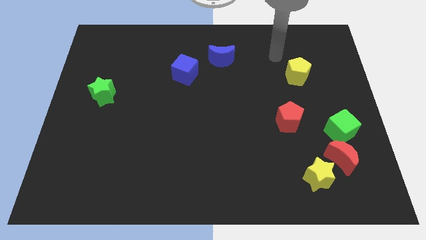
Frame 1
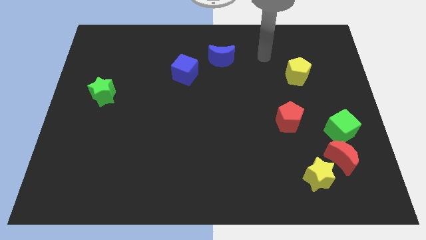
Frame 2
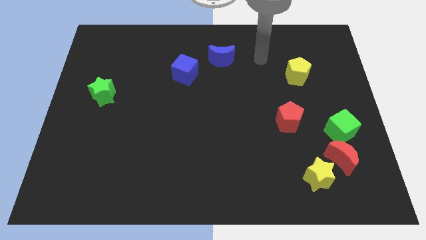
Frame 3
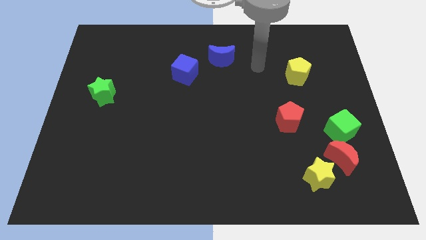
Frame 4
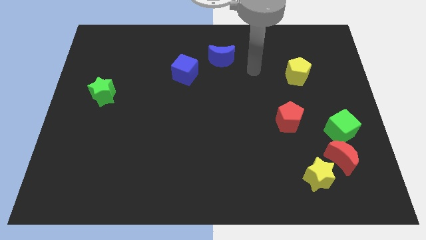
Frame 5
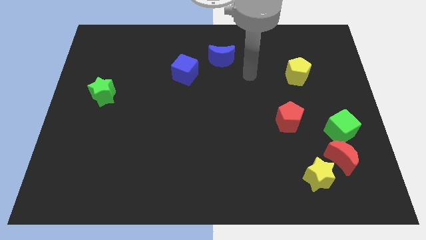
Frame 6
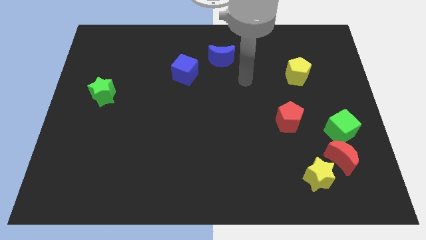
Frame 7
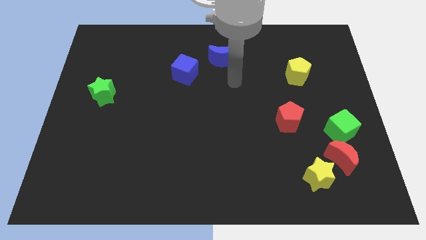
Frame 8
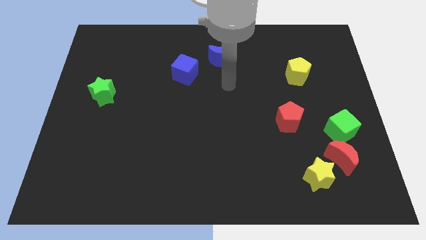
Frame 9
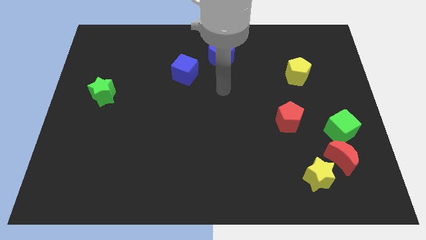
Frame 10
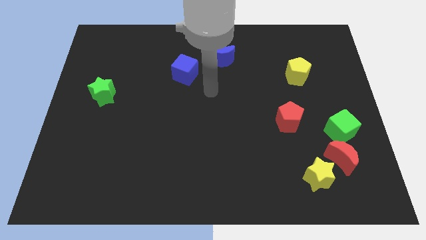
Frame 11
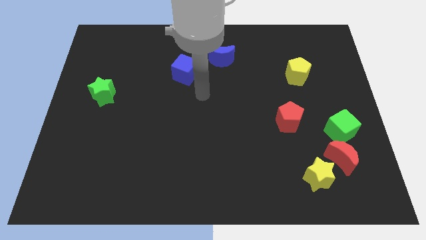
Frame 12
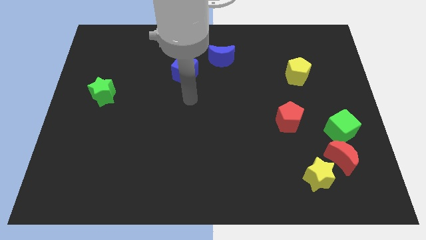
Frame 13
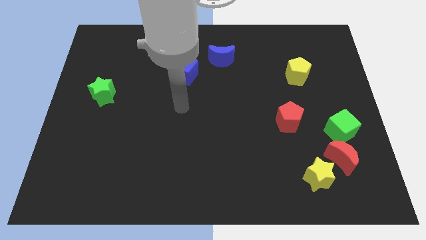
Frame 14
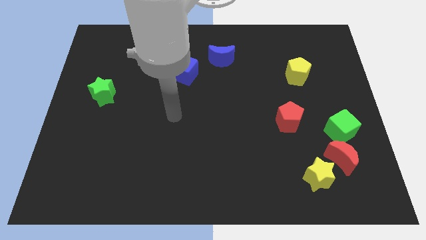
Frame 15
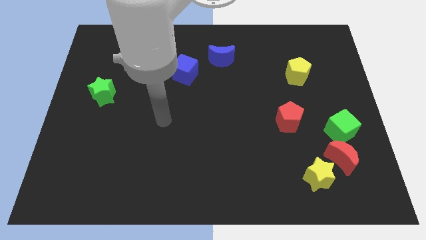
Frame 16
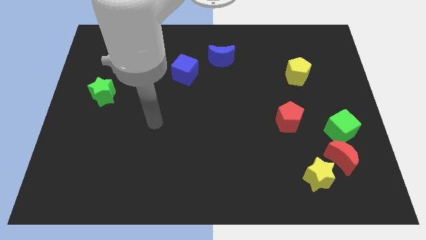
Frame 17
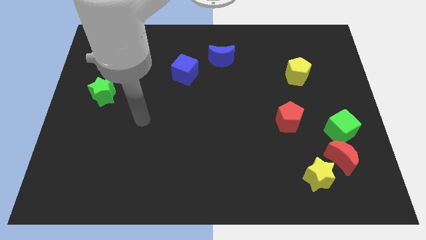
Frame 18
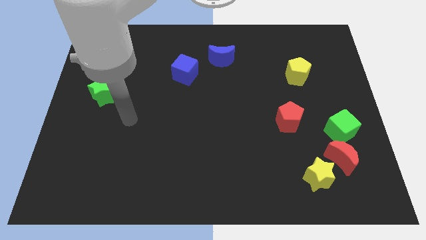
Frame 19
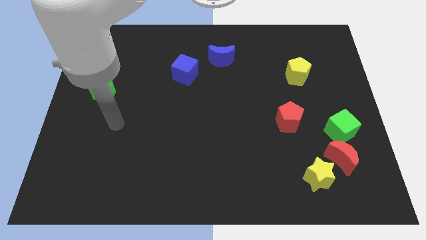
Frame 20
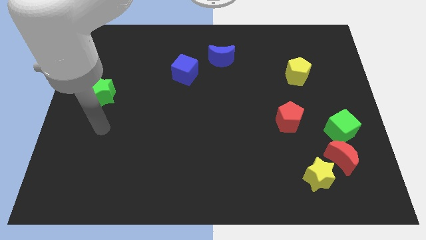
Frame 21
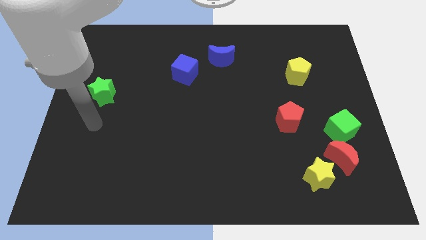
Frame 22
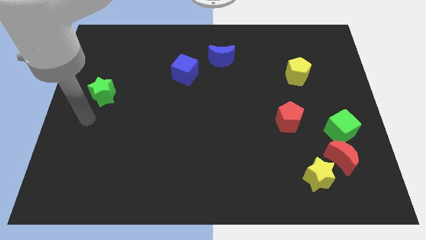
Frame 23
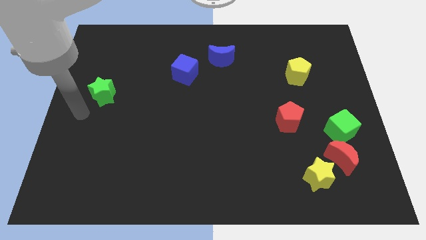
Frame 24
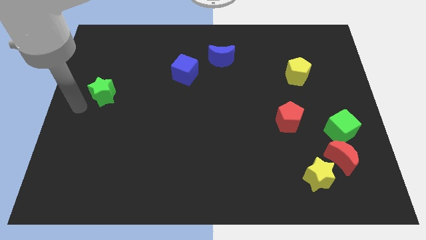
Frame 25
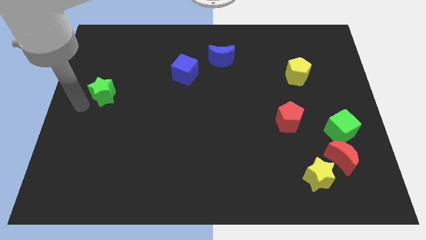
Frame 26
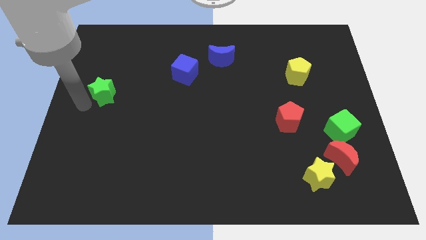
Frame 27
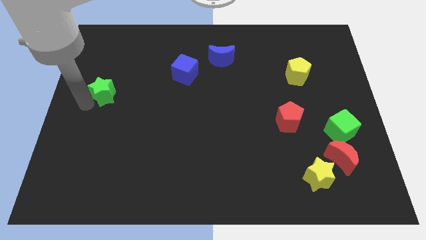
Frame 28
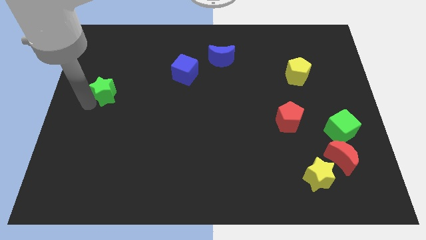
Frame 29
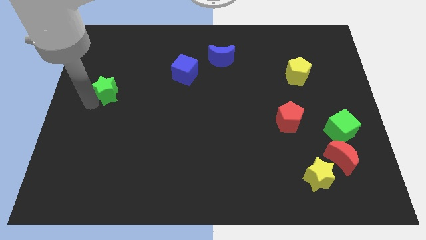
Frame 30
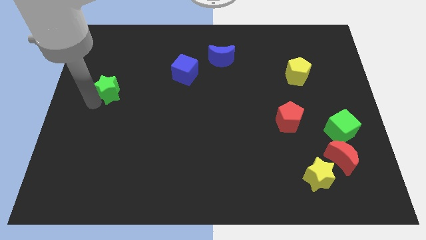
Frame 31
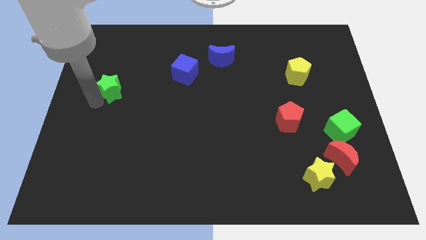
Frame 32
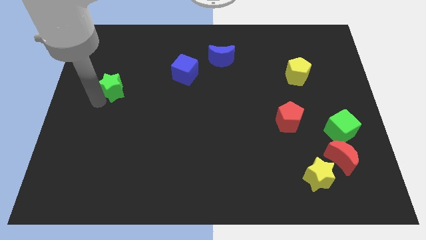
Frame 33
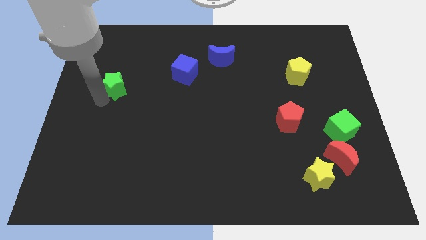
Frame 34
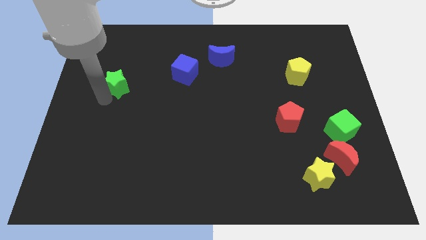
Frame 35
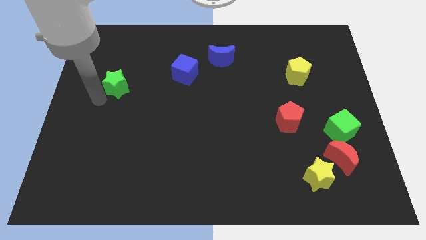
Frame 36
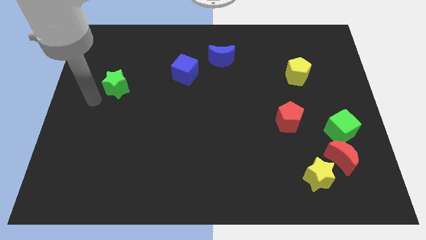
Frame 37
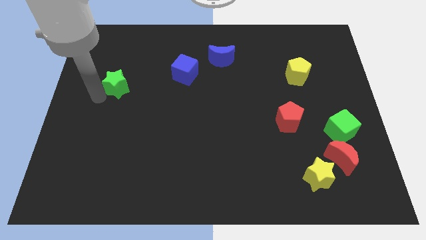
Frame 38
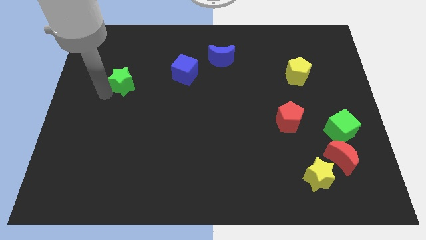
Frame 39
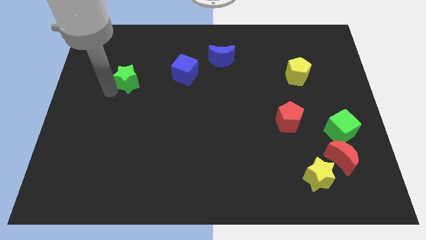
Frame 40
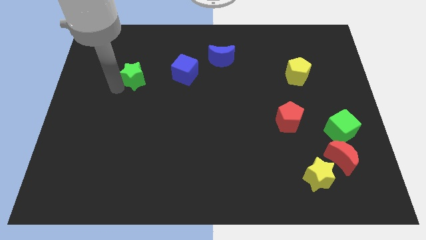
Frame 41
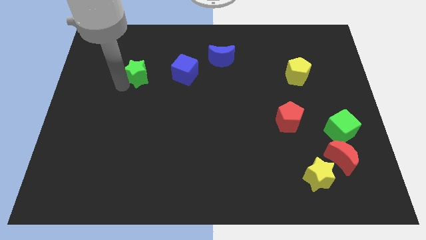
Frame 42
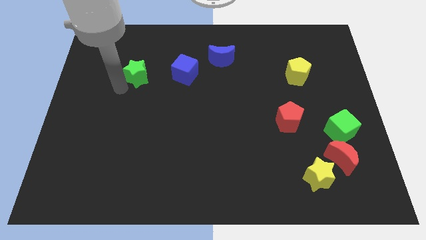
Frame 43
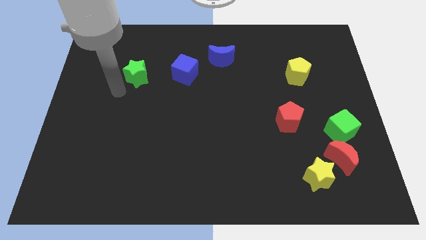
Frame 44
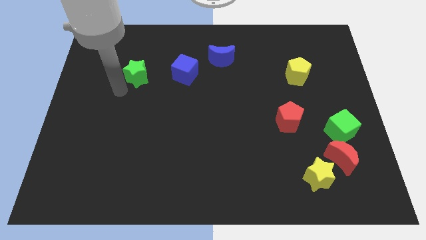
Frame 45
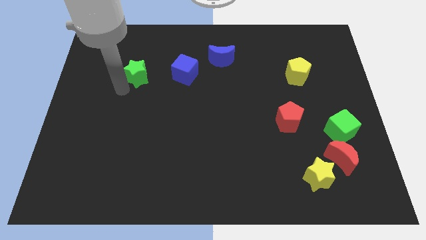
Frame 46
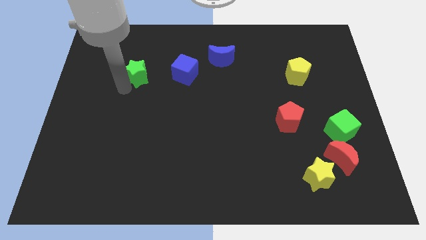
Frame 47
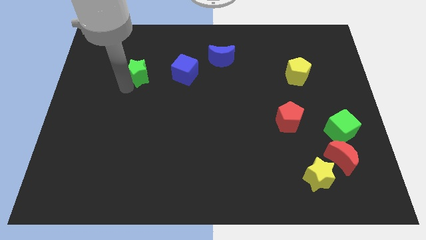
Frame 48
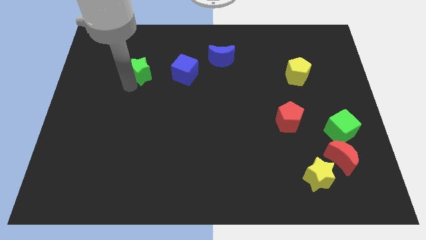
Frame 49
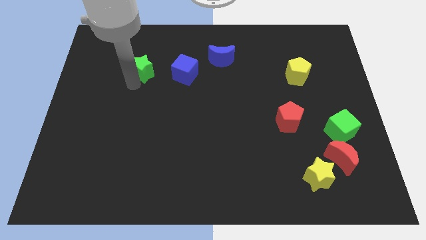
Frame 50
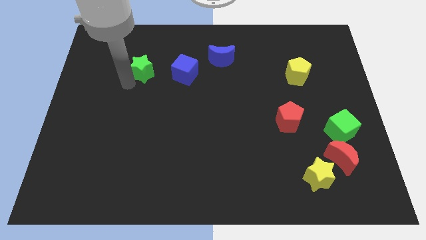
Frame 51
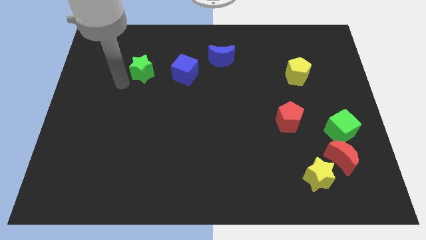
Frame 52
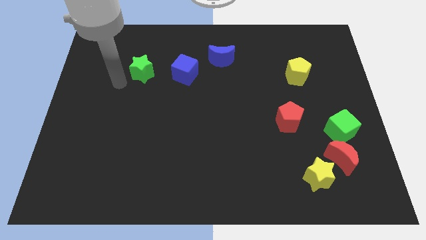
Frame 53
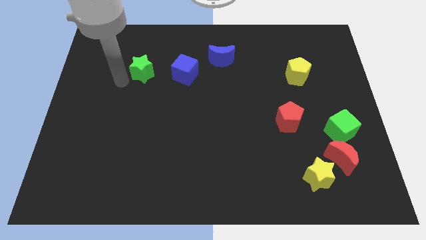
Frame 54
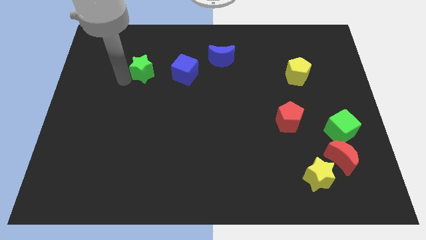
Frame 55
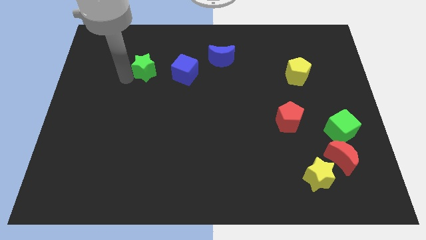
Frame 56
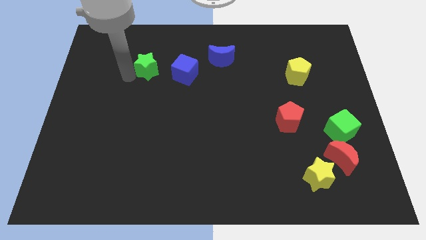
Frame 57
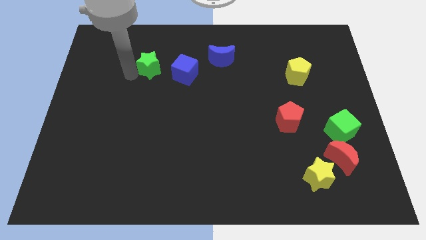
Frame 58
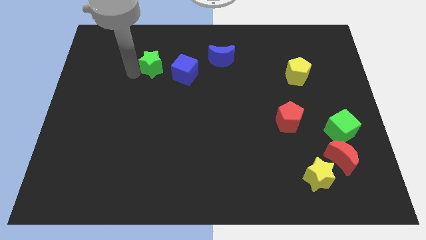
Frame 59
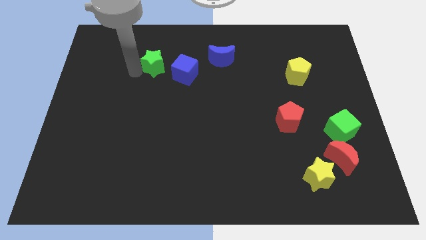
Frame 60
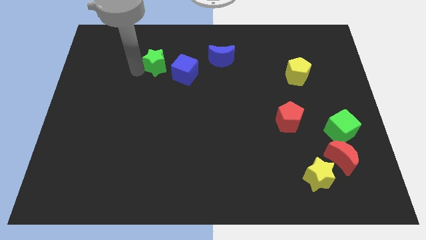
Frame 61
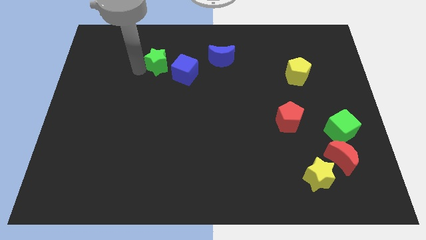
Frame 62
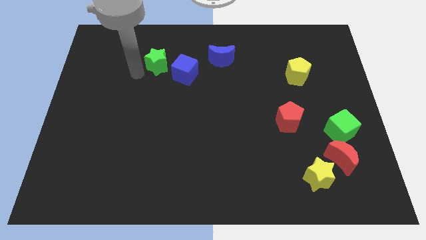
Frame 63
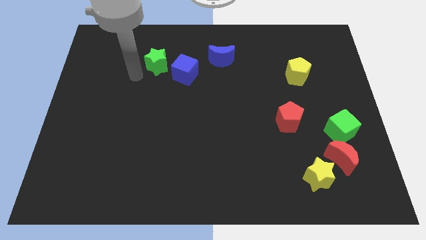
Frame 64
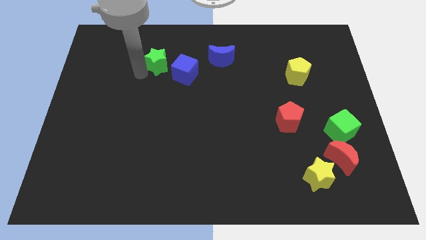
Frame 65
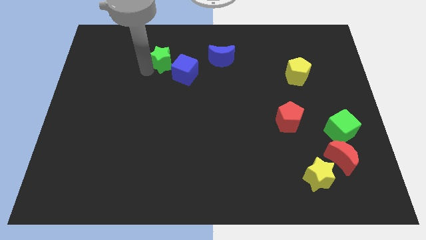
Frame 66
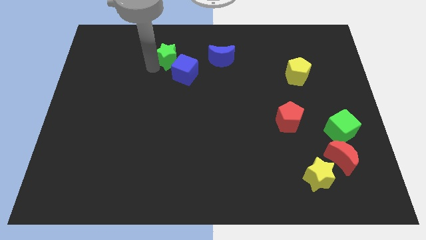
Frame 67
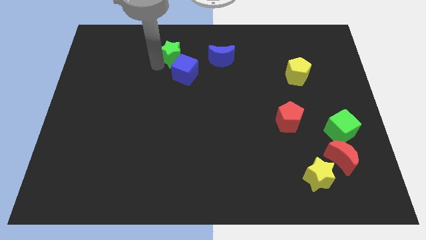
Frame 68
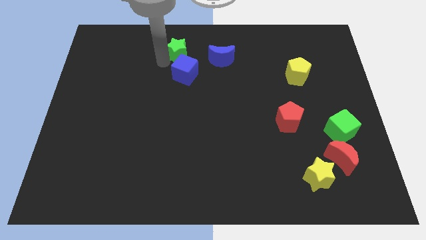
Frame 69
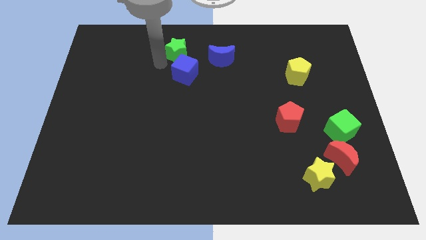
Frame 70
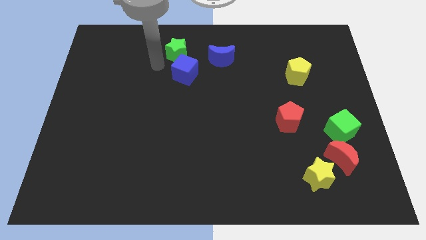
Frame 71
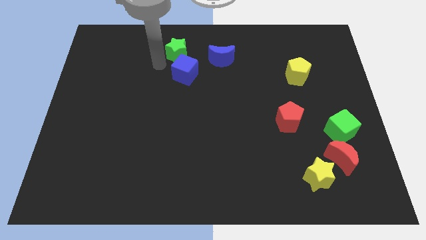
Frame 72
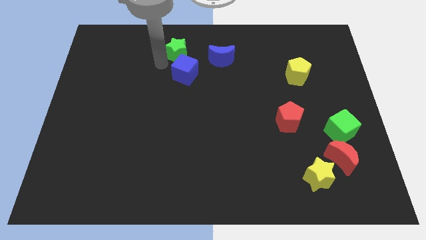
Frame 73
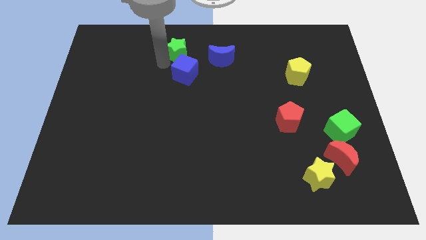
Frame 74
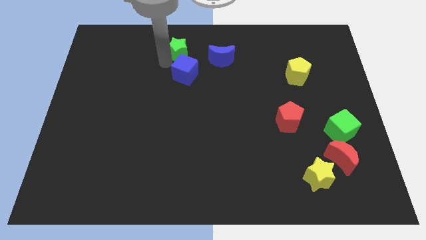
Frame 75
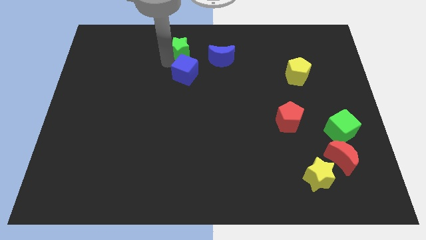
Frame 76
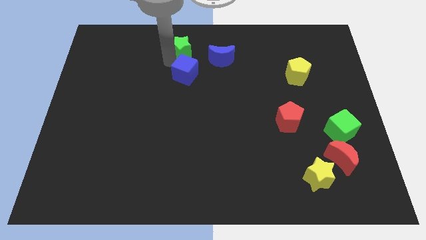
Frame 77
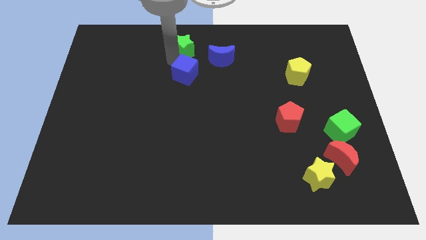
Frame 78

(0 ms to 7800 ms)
move the green star to the top
